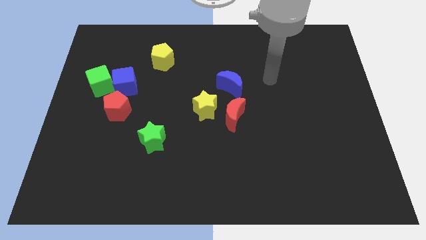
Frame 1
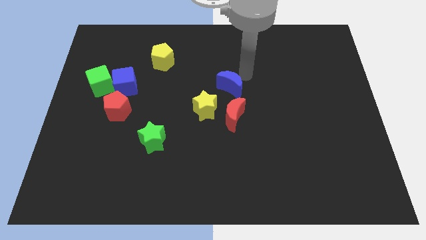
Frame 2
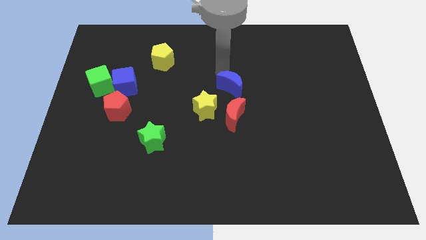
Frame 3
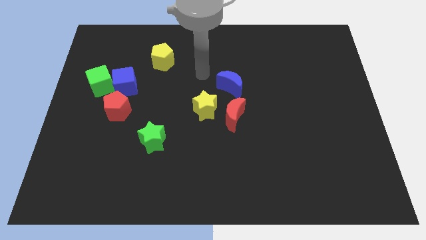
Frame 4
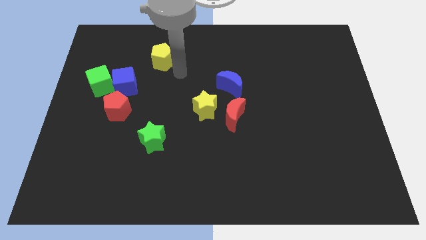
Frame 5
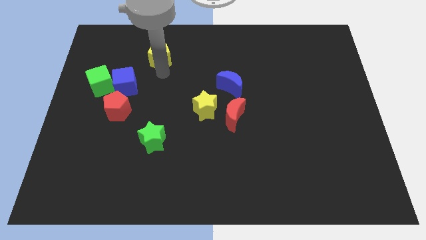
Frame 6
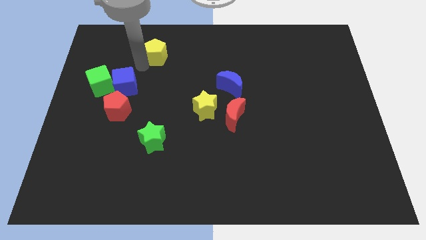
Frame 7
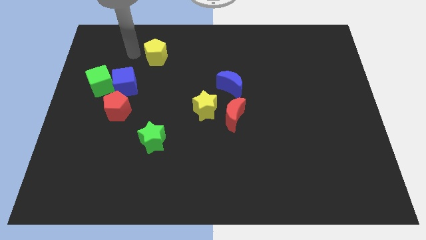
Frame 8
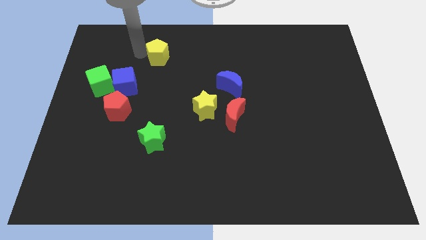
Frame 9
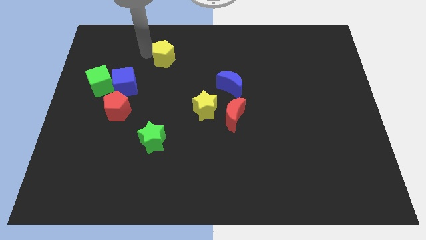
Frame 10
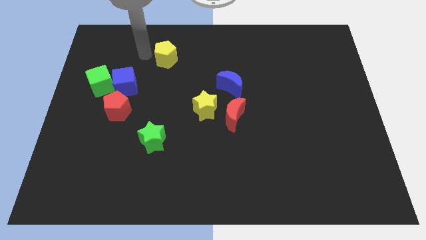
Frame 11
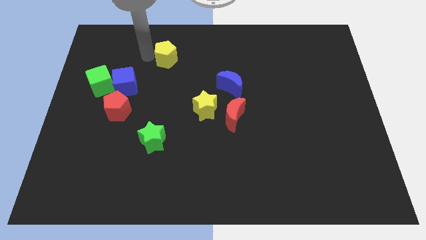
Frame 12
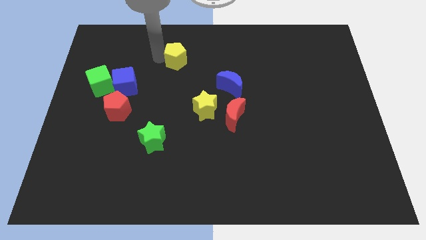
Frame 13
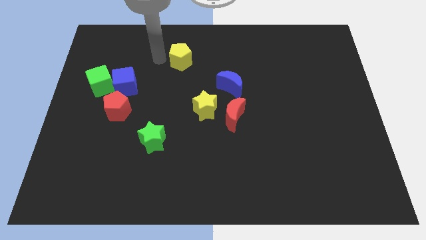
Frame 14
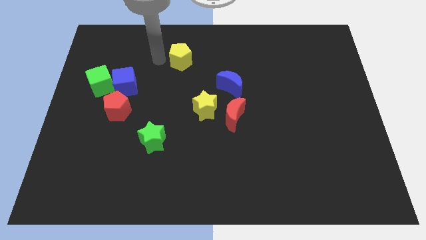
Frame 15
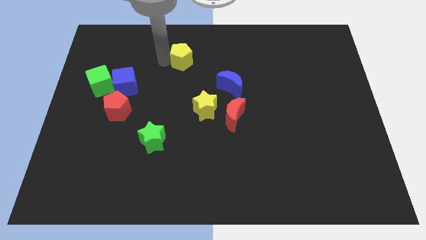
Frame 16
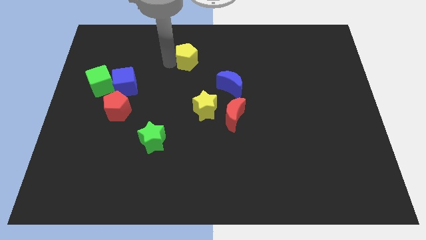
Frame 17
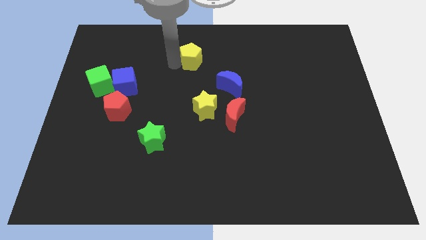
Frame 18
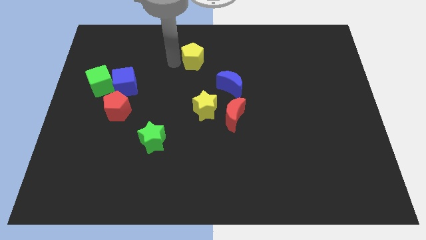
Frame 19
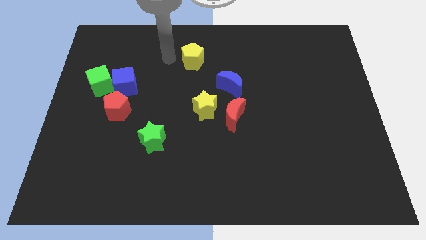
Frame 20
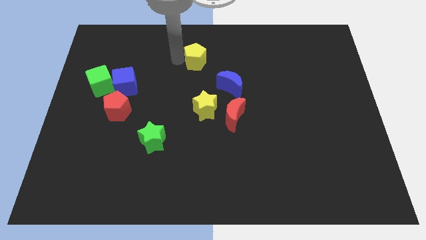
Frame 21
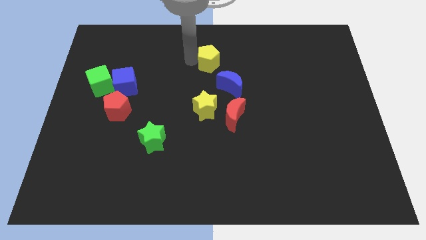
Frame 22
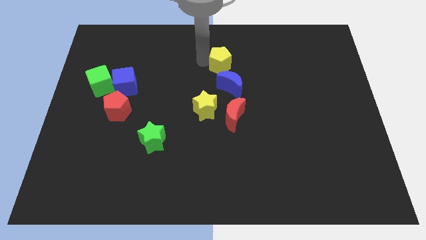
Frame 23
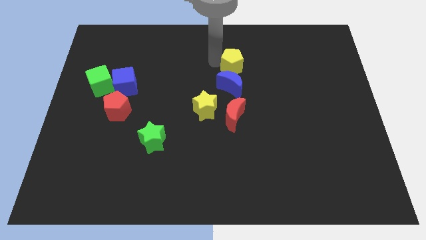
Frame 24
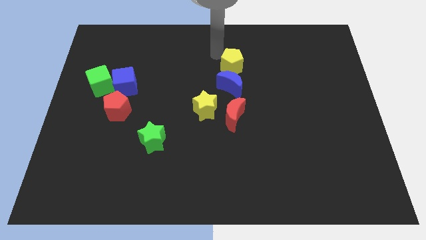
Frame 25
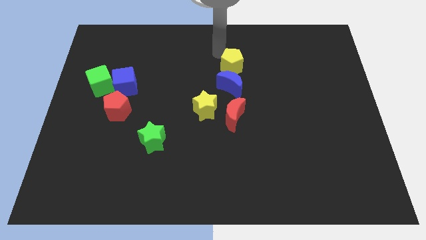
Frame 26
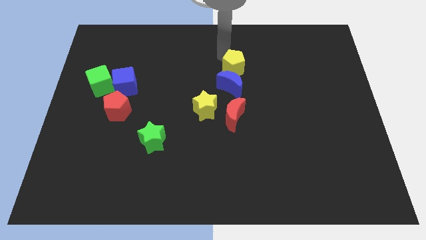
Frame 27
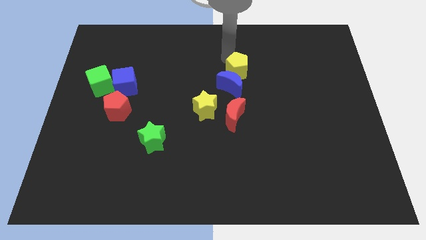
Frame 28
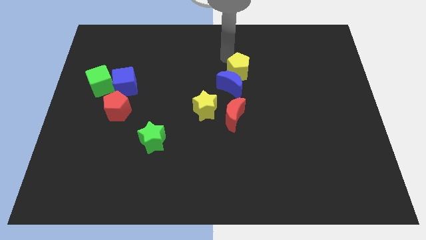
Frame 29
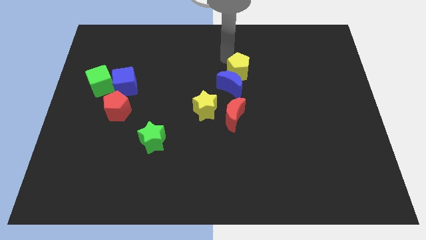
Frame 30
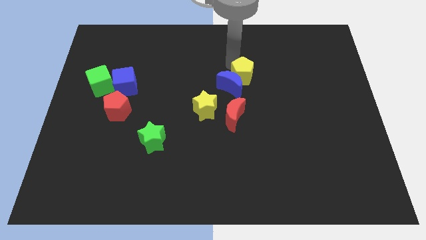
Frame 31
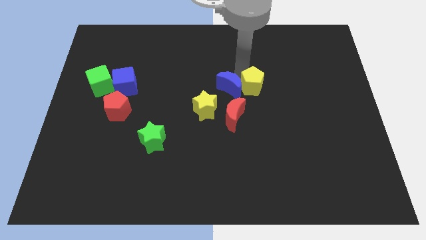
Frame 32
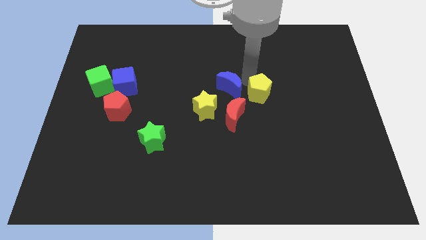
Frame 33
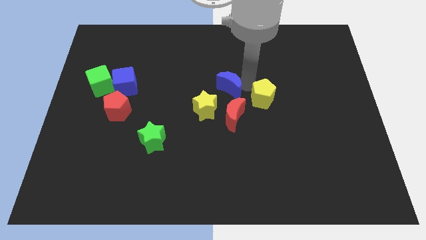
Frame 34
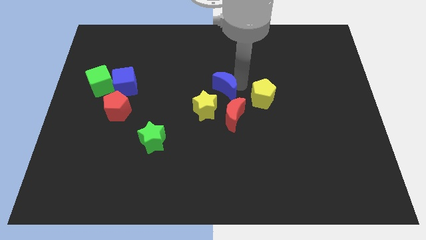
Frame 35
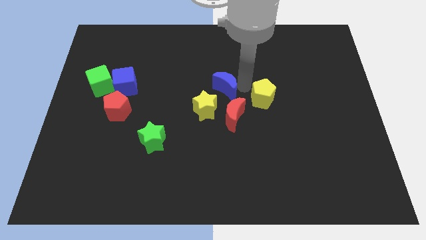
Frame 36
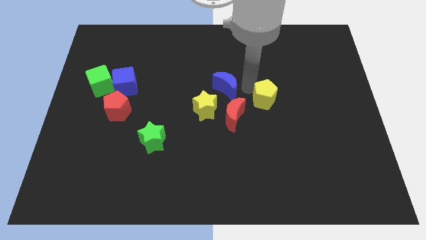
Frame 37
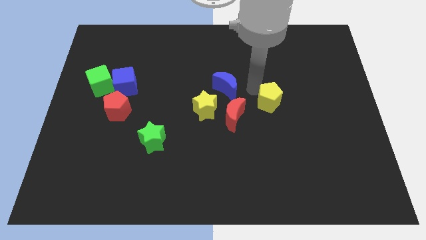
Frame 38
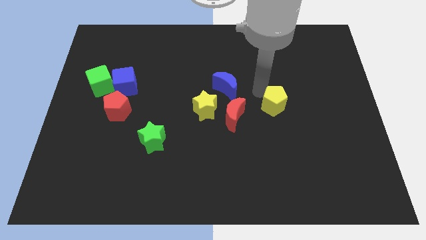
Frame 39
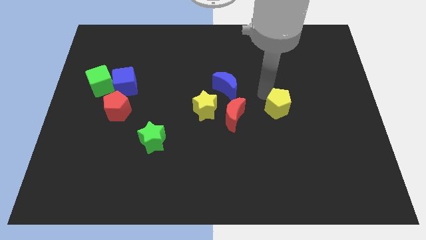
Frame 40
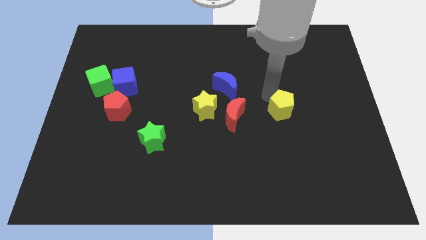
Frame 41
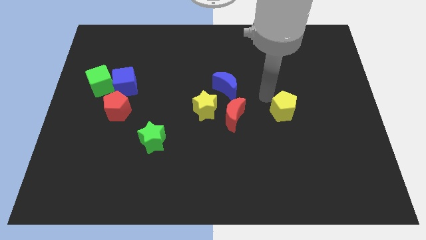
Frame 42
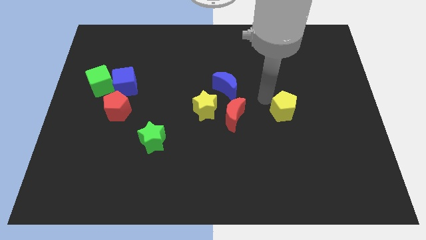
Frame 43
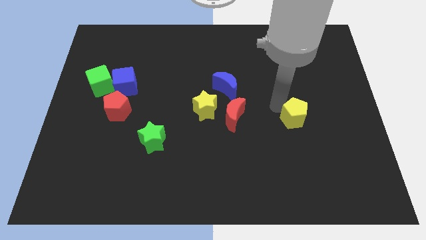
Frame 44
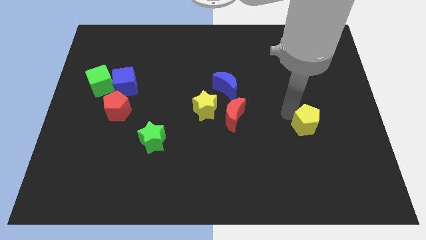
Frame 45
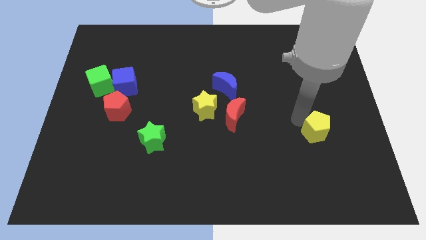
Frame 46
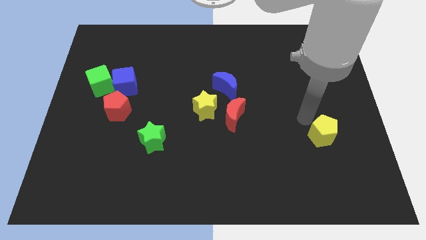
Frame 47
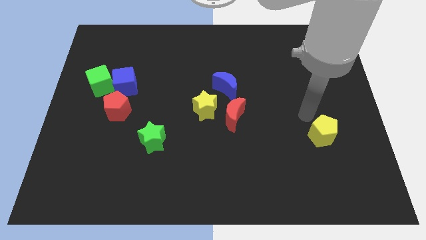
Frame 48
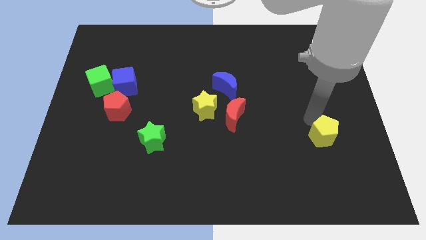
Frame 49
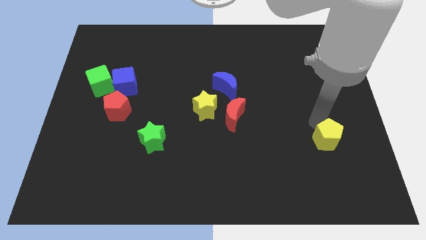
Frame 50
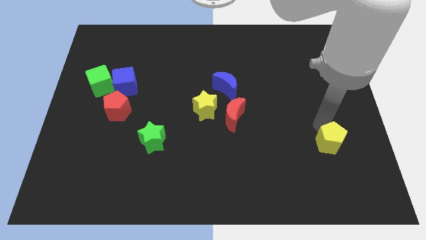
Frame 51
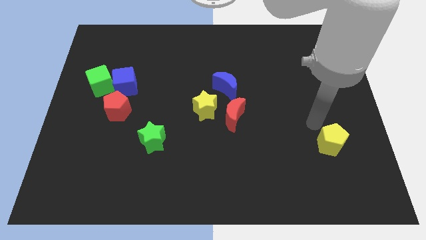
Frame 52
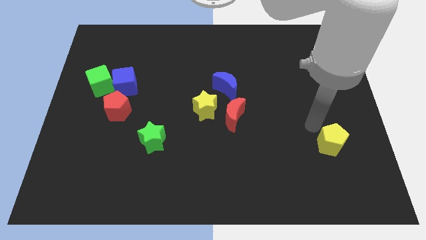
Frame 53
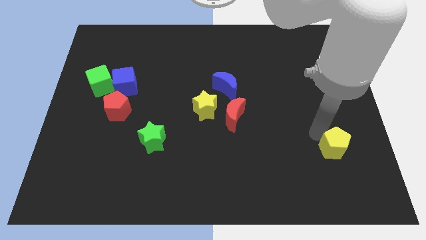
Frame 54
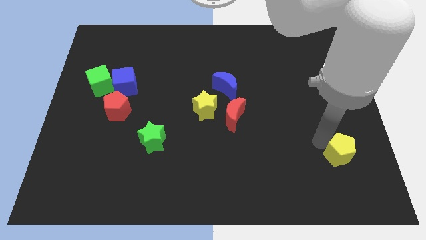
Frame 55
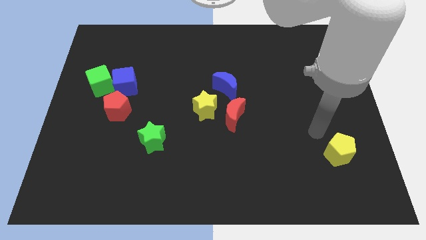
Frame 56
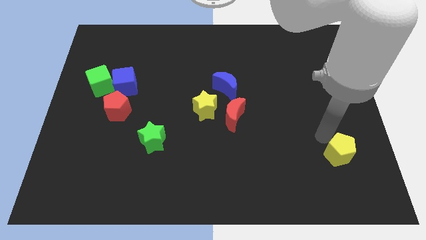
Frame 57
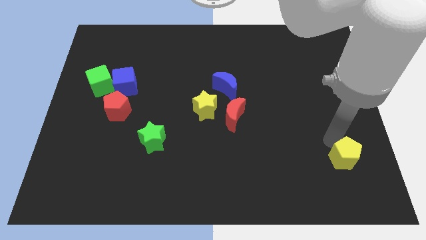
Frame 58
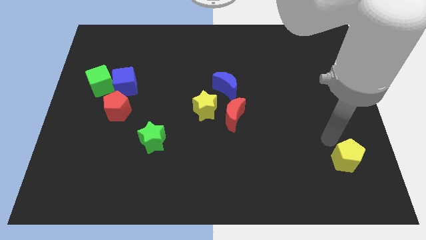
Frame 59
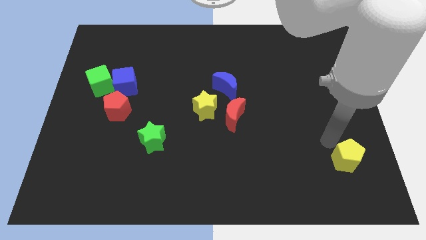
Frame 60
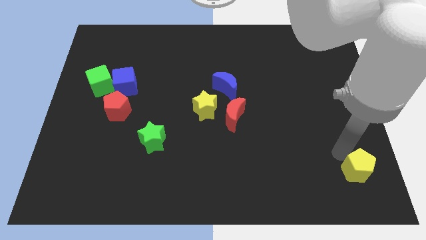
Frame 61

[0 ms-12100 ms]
move the yellow pentagon to the bottom right

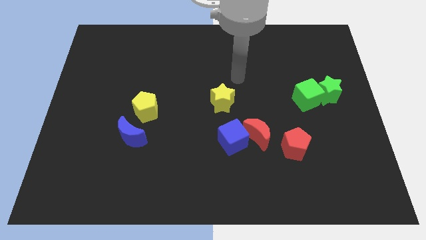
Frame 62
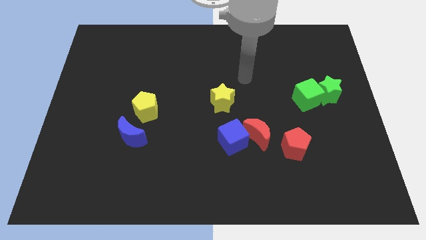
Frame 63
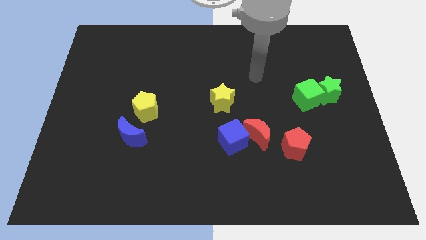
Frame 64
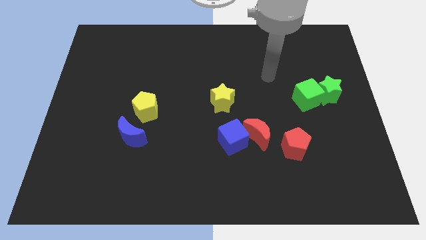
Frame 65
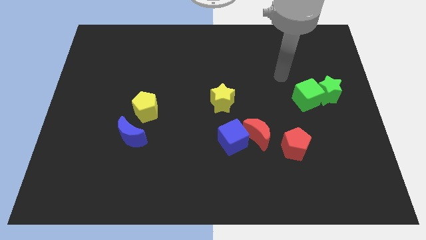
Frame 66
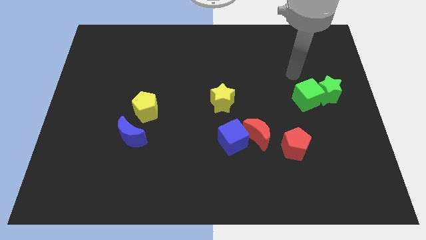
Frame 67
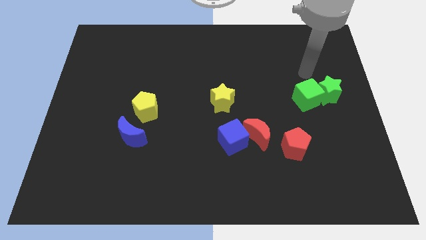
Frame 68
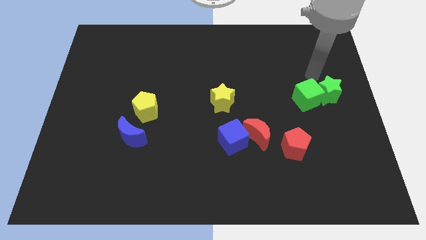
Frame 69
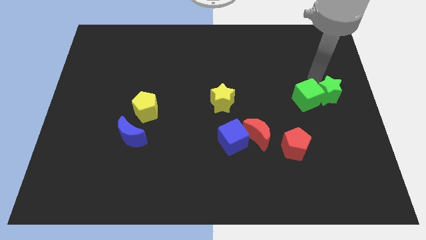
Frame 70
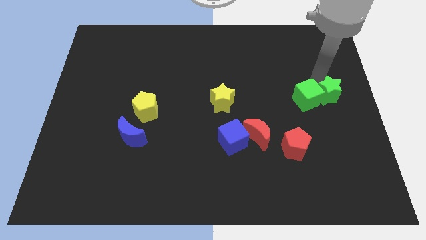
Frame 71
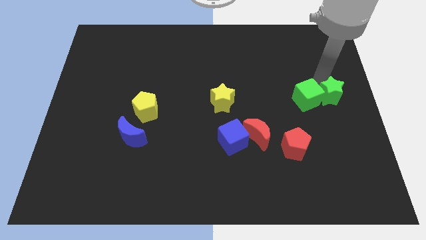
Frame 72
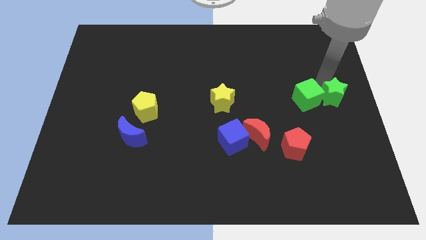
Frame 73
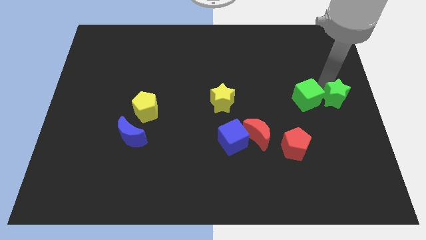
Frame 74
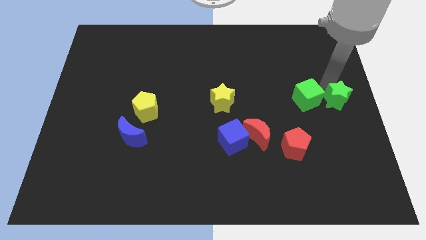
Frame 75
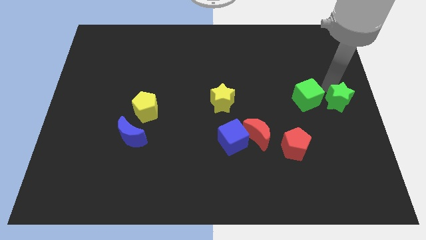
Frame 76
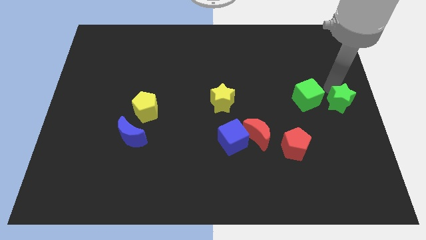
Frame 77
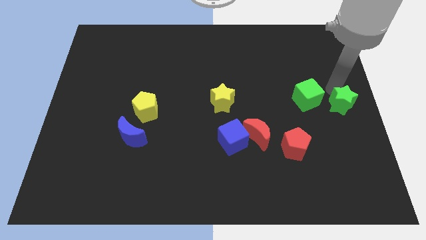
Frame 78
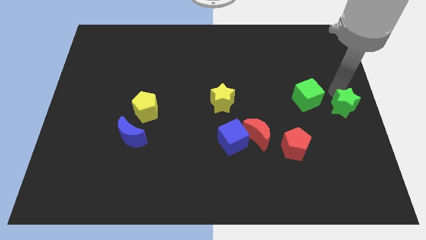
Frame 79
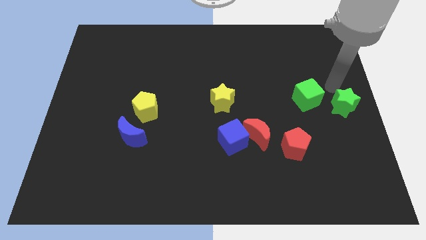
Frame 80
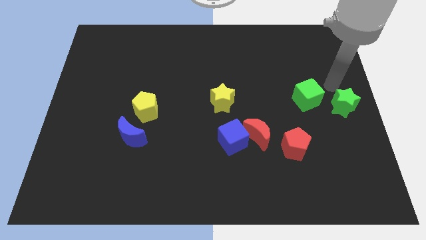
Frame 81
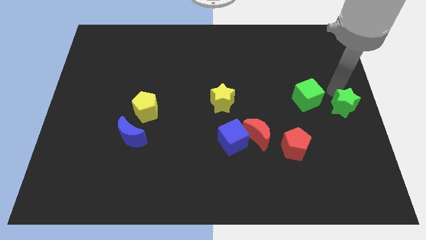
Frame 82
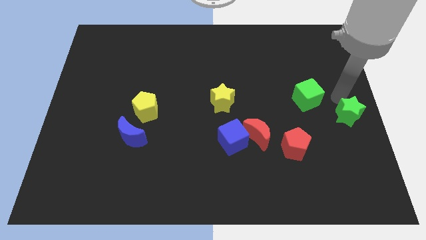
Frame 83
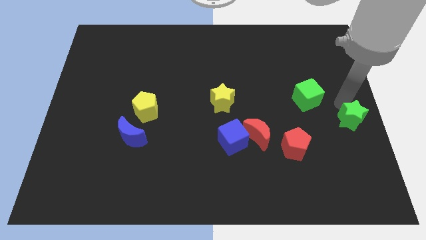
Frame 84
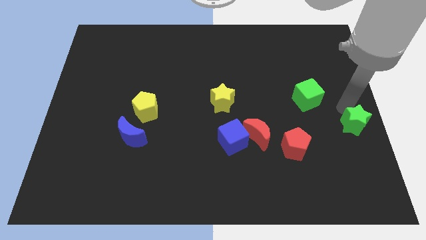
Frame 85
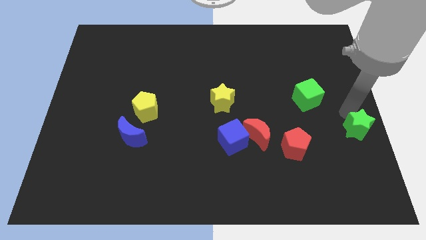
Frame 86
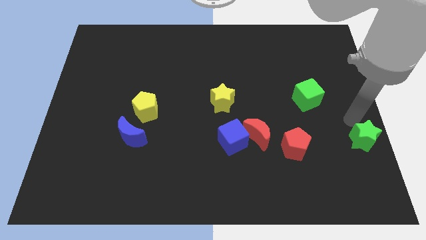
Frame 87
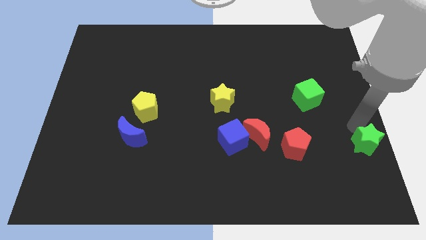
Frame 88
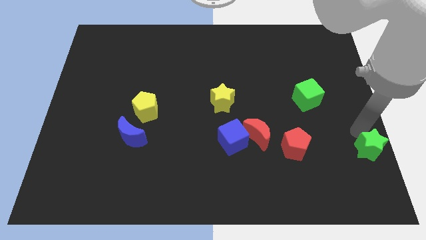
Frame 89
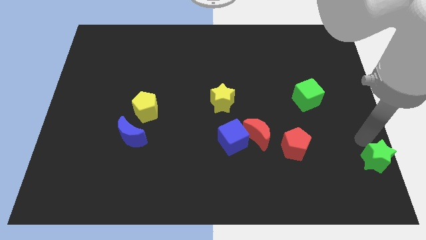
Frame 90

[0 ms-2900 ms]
put the green star to the bottom right of the board
